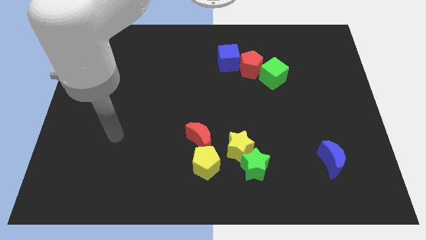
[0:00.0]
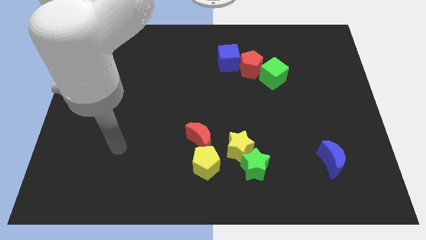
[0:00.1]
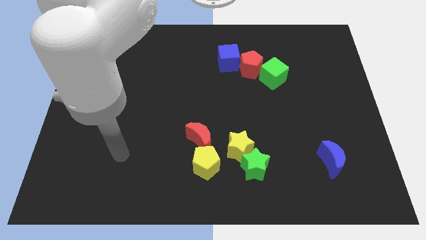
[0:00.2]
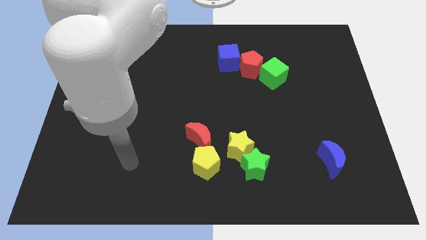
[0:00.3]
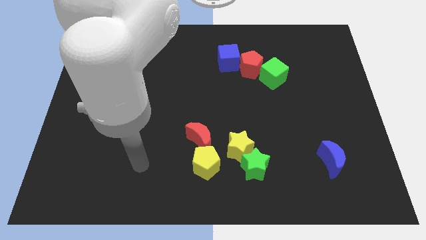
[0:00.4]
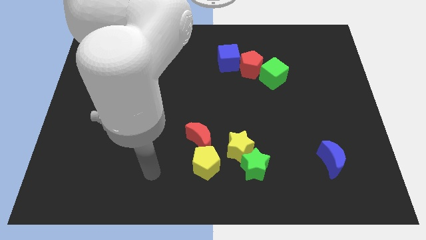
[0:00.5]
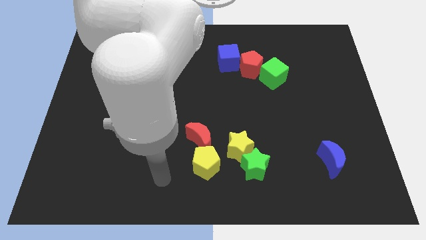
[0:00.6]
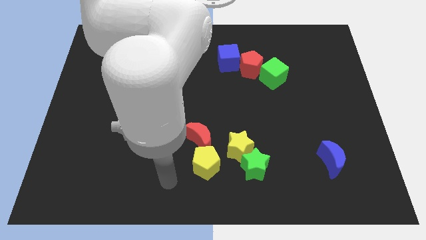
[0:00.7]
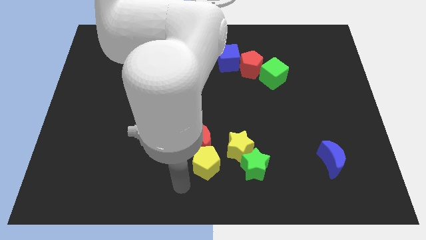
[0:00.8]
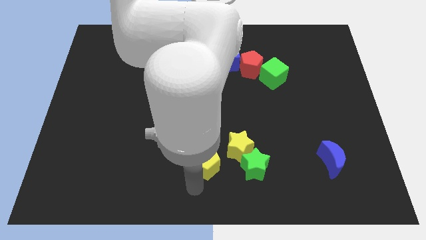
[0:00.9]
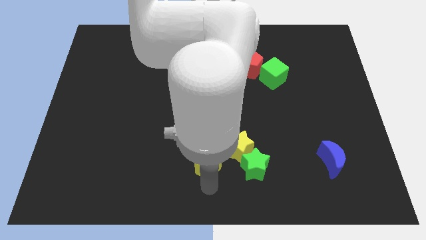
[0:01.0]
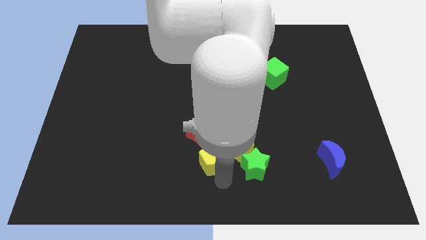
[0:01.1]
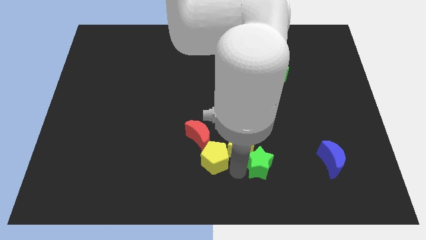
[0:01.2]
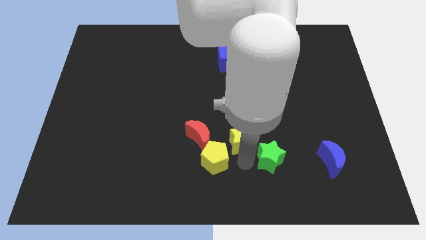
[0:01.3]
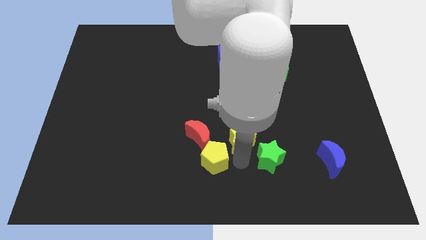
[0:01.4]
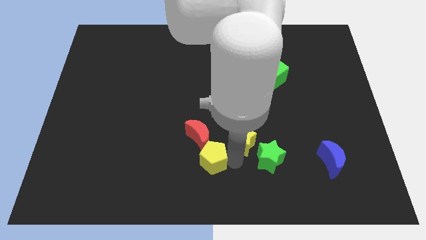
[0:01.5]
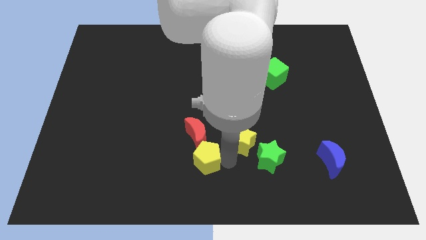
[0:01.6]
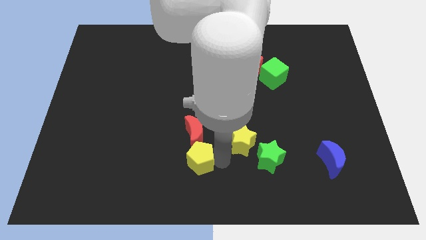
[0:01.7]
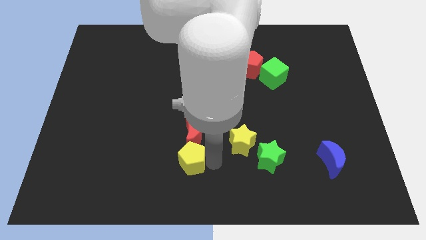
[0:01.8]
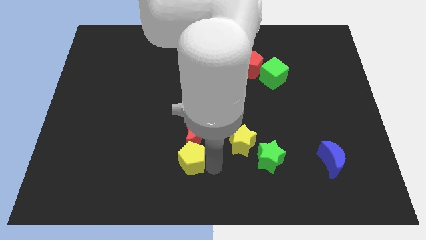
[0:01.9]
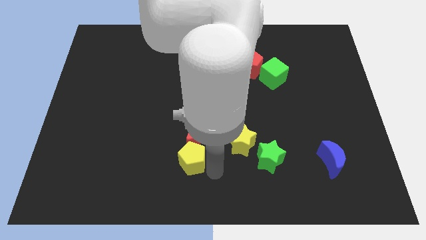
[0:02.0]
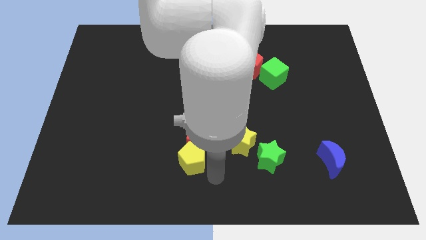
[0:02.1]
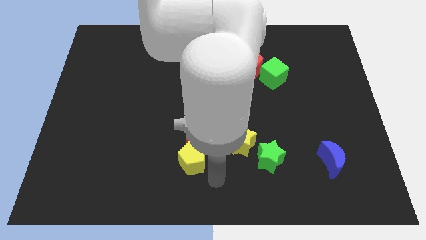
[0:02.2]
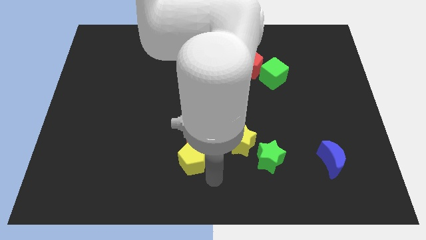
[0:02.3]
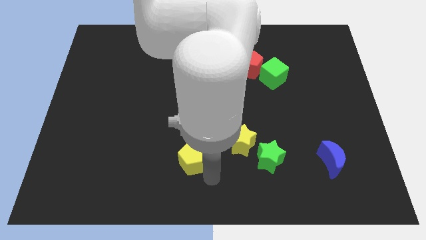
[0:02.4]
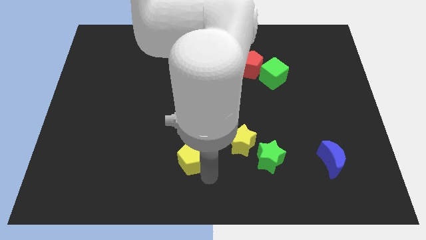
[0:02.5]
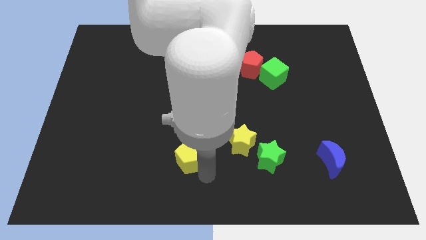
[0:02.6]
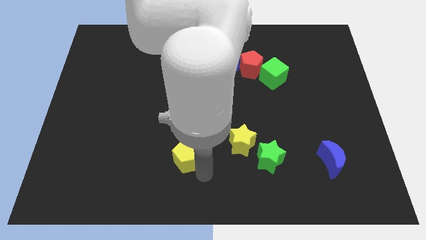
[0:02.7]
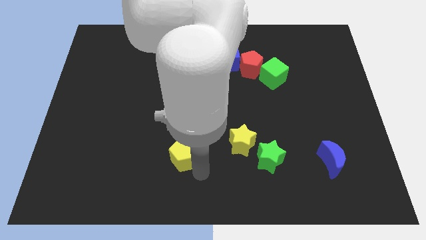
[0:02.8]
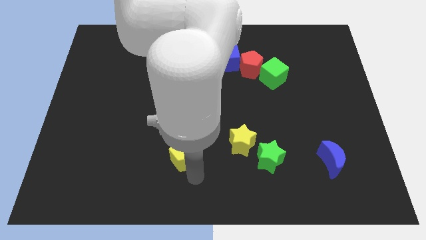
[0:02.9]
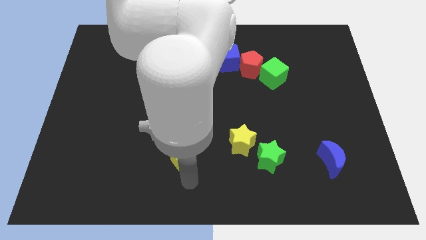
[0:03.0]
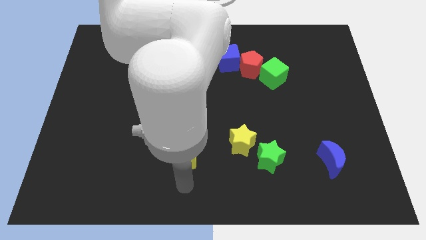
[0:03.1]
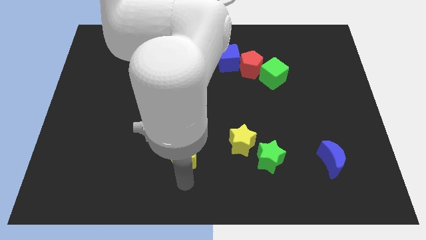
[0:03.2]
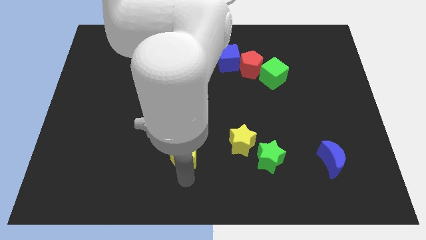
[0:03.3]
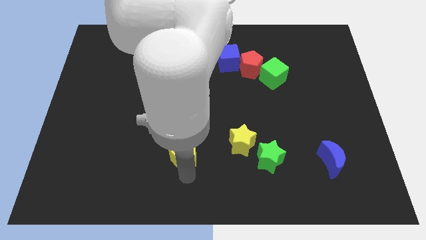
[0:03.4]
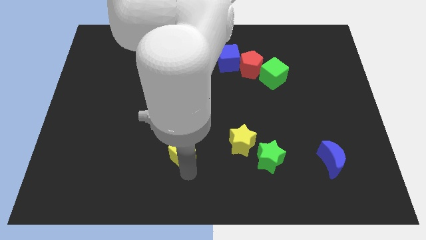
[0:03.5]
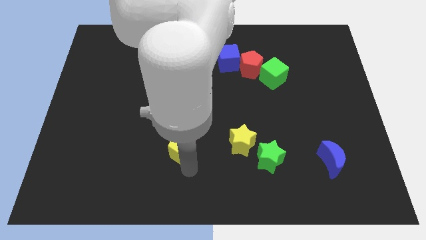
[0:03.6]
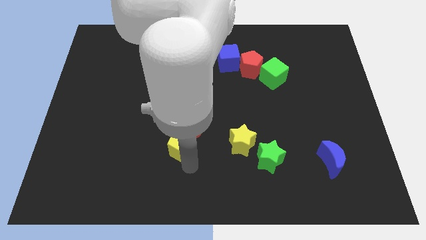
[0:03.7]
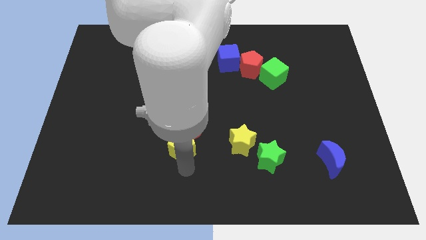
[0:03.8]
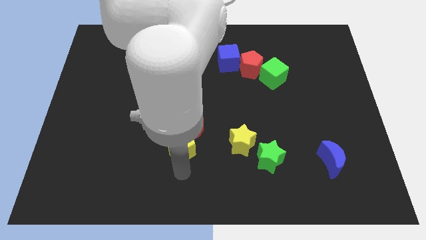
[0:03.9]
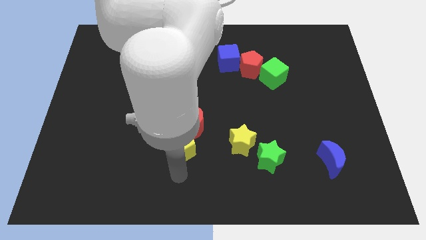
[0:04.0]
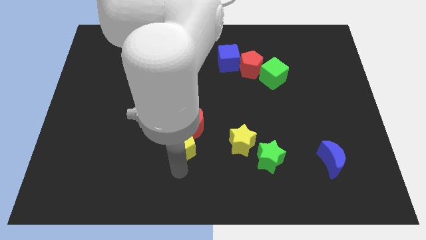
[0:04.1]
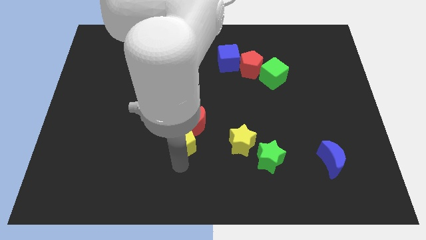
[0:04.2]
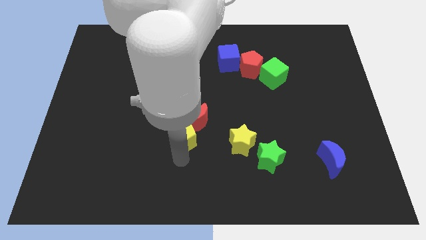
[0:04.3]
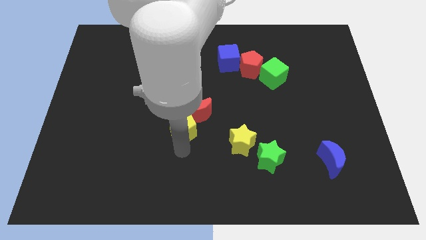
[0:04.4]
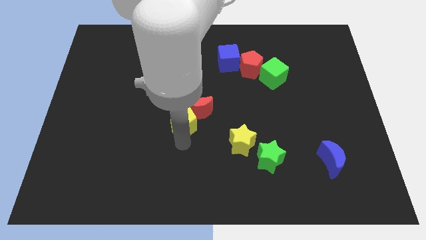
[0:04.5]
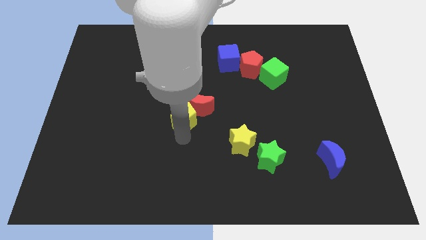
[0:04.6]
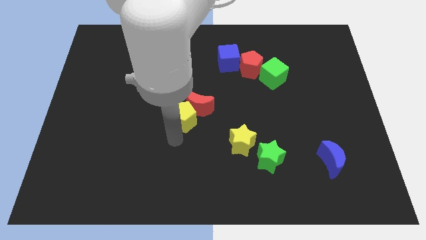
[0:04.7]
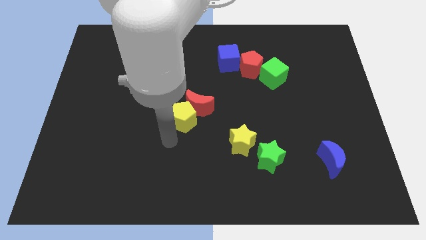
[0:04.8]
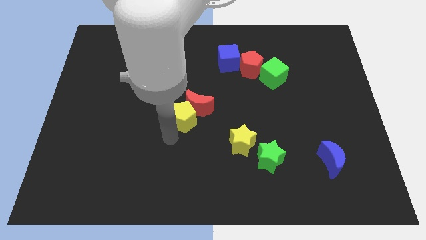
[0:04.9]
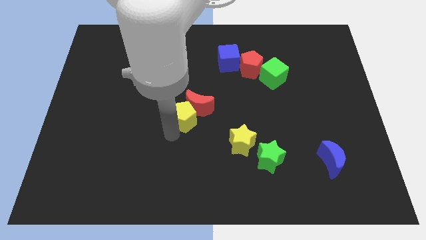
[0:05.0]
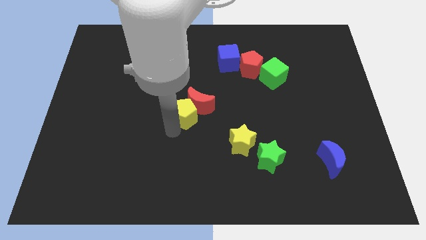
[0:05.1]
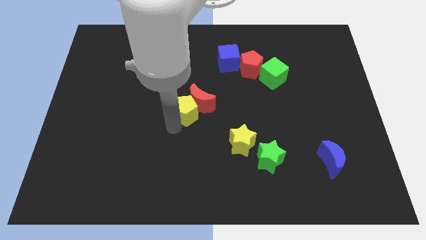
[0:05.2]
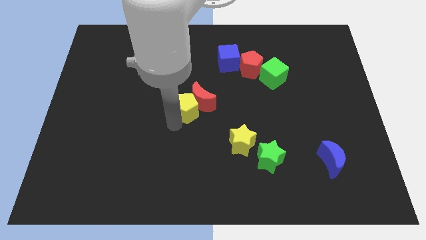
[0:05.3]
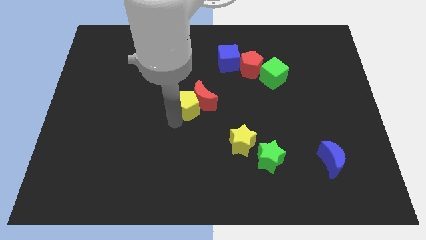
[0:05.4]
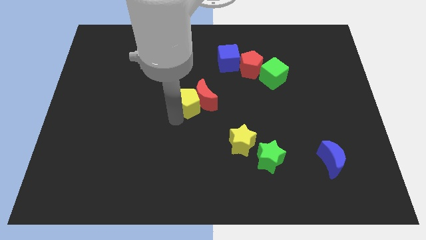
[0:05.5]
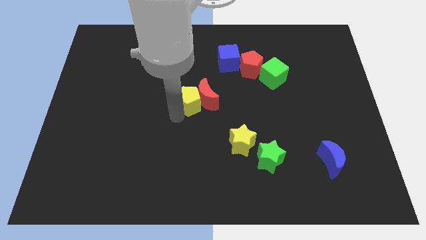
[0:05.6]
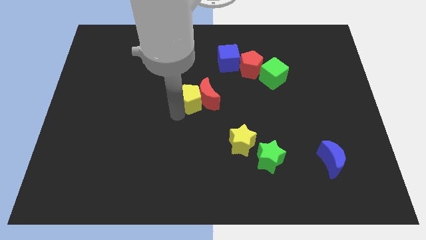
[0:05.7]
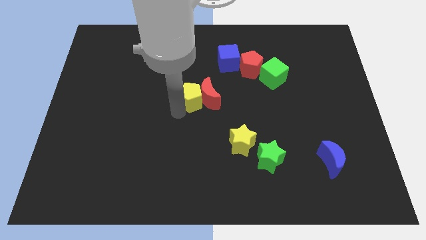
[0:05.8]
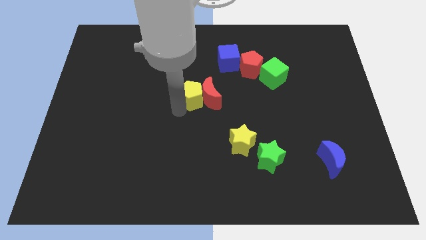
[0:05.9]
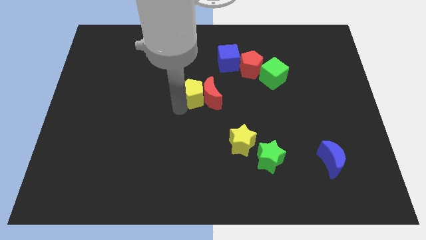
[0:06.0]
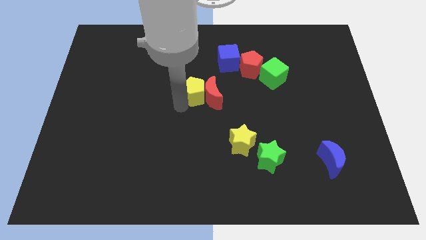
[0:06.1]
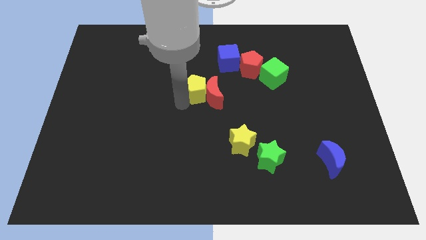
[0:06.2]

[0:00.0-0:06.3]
move the yellow pentagon upwards

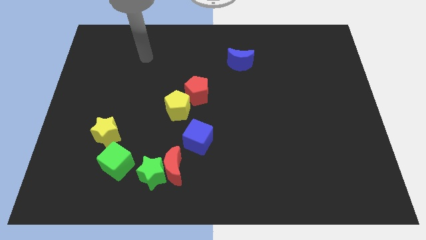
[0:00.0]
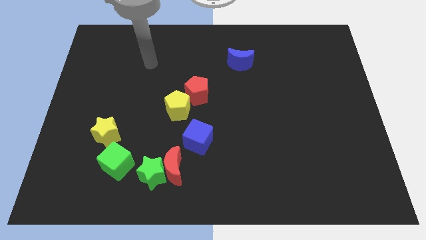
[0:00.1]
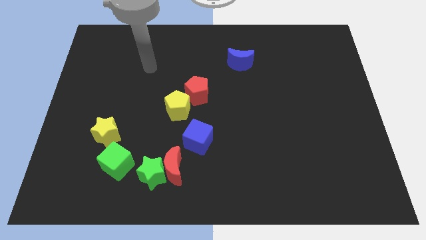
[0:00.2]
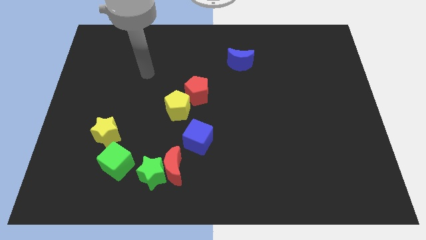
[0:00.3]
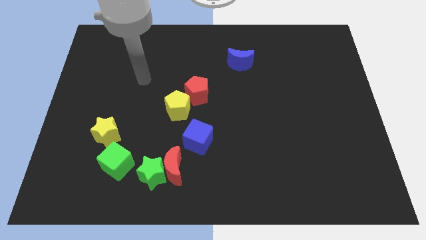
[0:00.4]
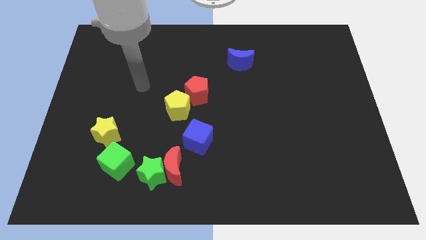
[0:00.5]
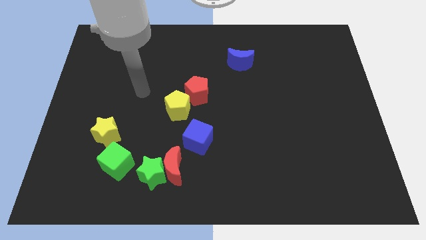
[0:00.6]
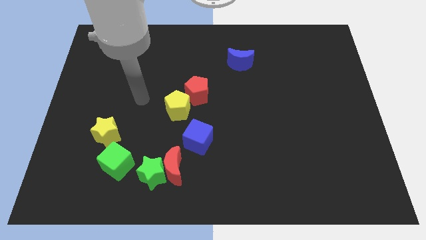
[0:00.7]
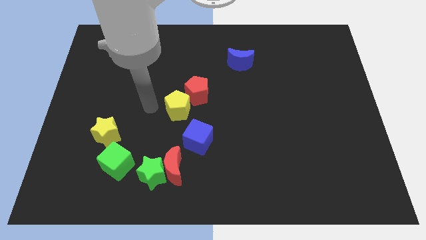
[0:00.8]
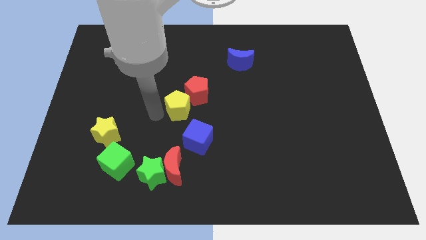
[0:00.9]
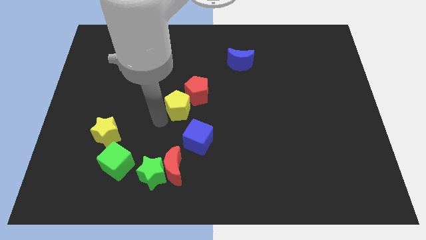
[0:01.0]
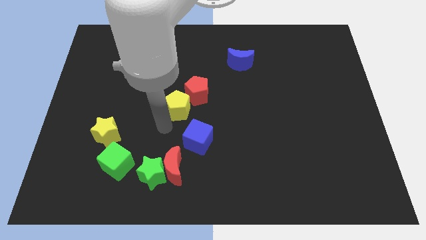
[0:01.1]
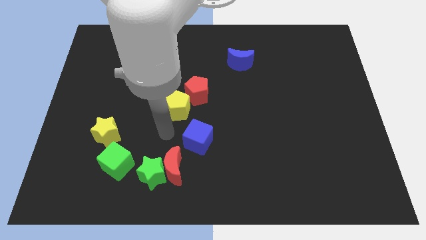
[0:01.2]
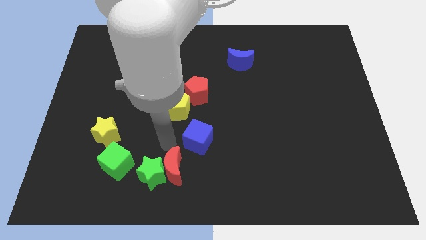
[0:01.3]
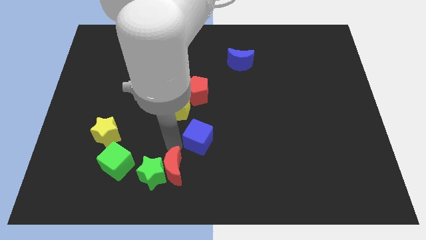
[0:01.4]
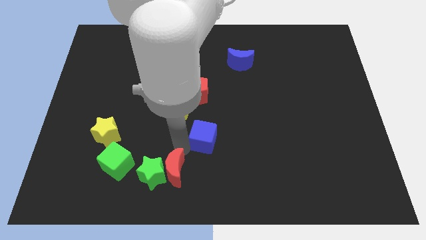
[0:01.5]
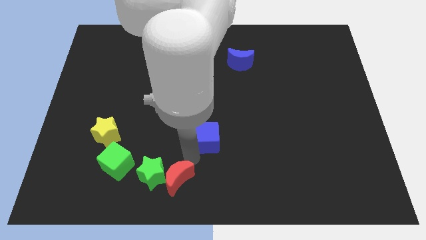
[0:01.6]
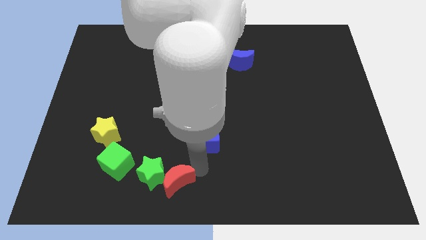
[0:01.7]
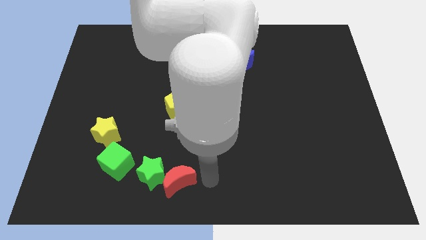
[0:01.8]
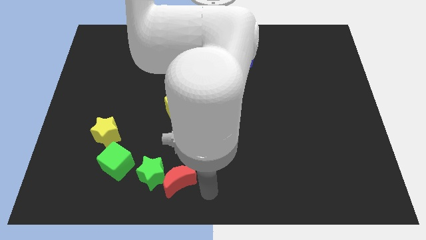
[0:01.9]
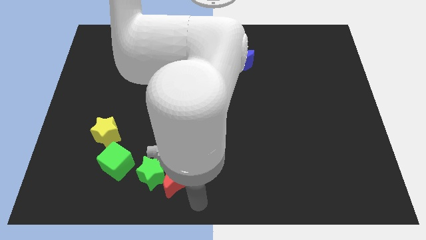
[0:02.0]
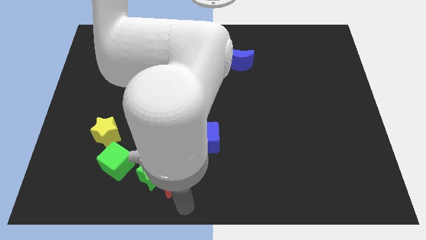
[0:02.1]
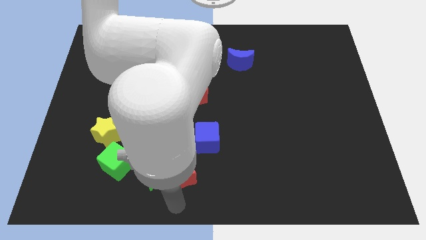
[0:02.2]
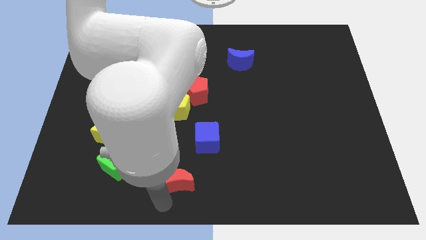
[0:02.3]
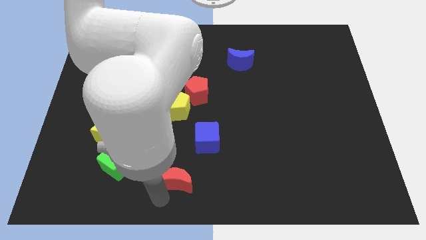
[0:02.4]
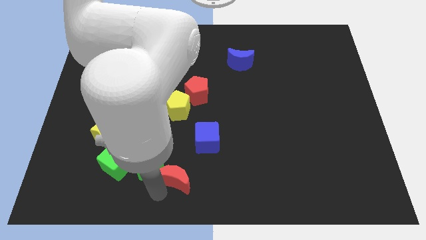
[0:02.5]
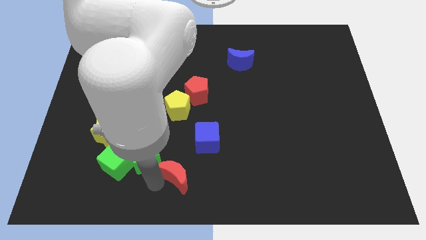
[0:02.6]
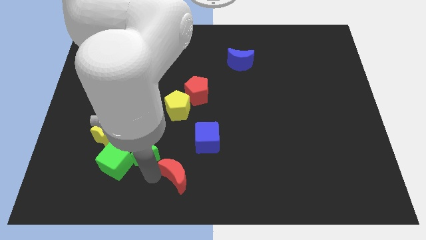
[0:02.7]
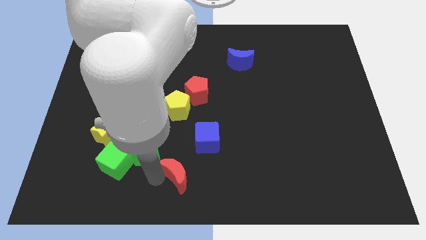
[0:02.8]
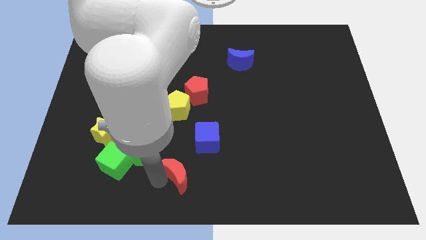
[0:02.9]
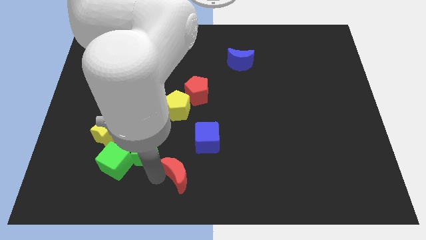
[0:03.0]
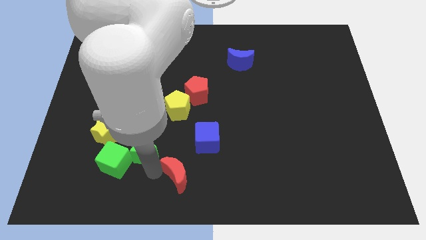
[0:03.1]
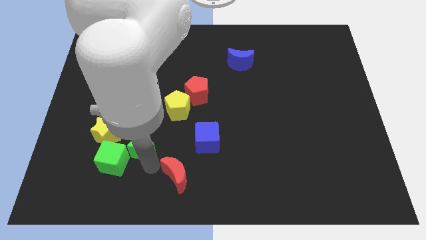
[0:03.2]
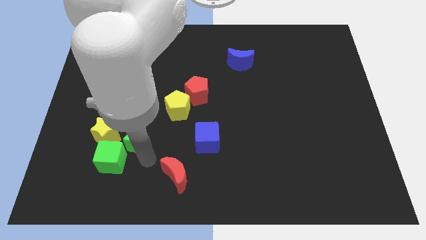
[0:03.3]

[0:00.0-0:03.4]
slightly push the green star up and left diagonally
